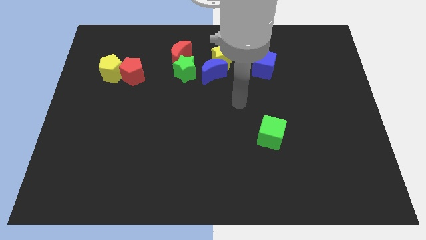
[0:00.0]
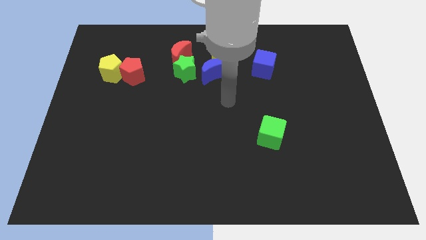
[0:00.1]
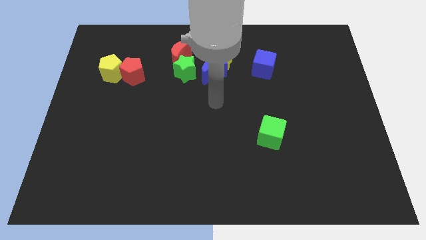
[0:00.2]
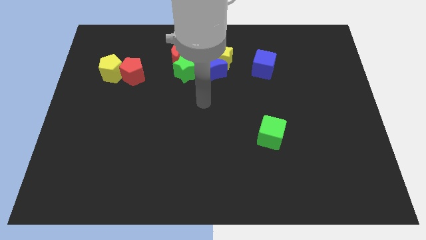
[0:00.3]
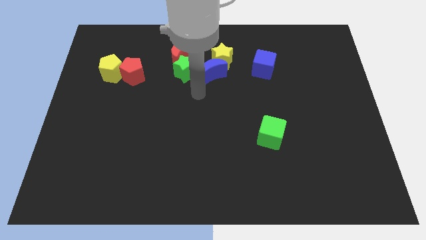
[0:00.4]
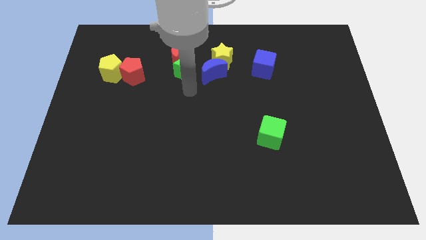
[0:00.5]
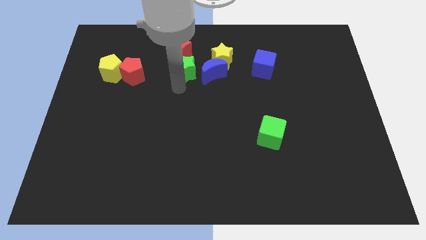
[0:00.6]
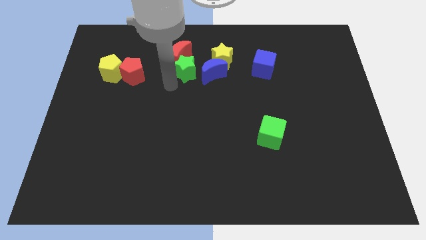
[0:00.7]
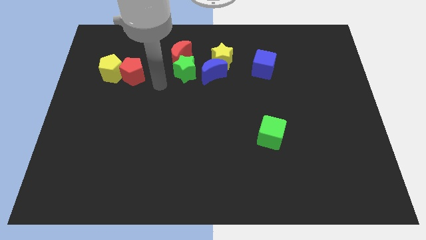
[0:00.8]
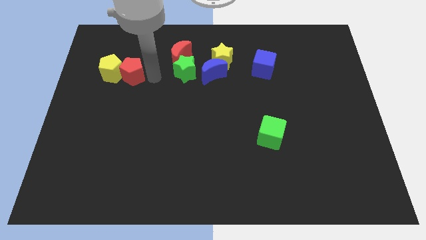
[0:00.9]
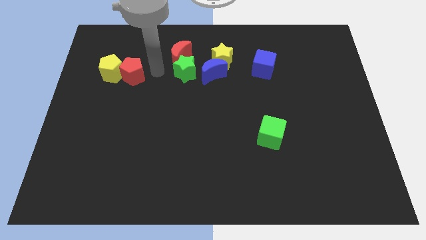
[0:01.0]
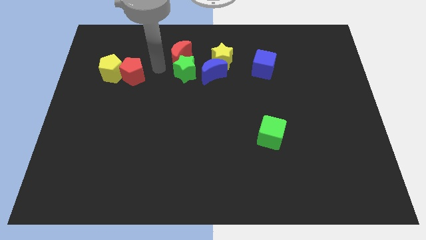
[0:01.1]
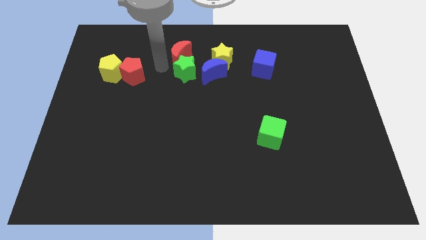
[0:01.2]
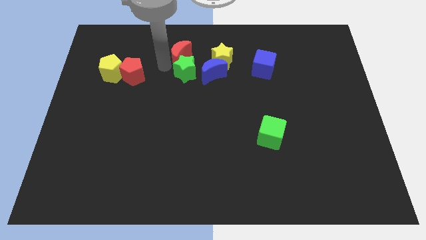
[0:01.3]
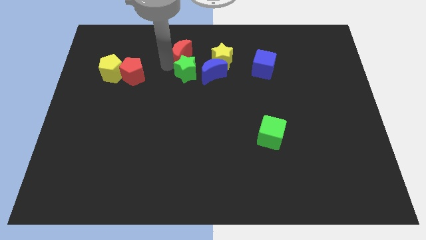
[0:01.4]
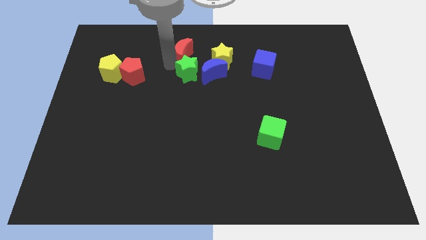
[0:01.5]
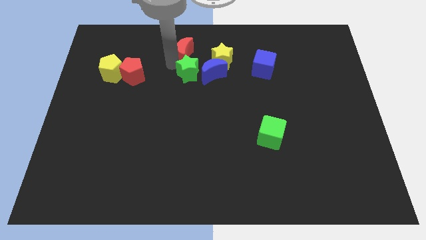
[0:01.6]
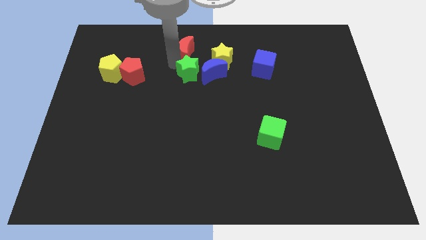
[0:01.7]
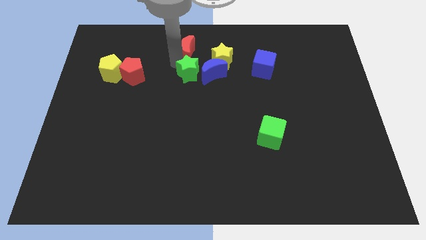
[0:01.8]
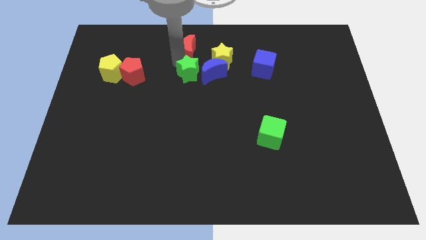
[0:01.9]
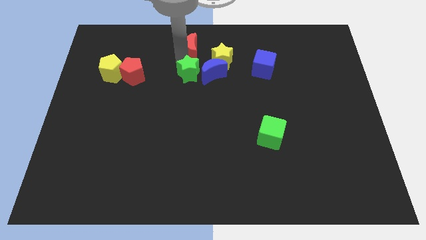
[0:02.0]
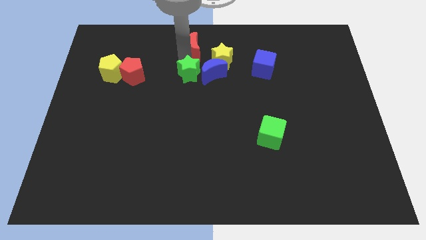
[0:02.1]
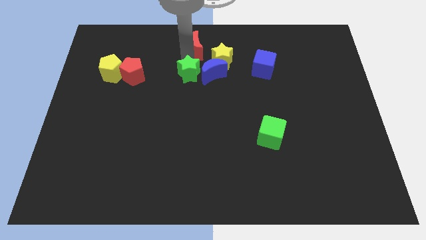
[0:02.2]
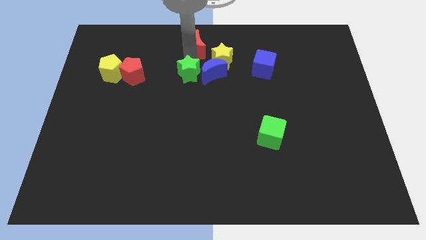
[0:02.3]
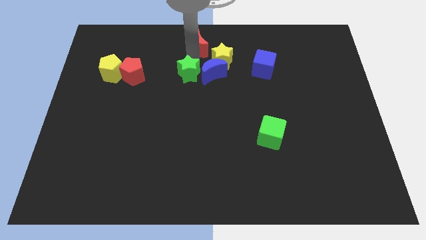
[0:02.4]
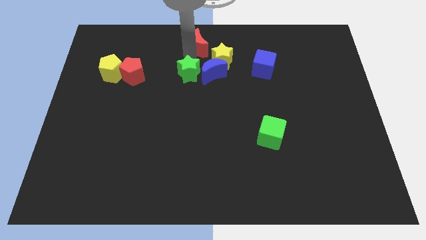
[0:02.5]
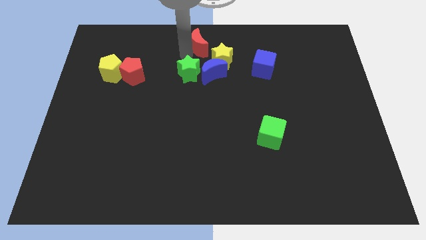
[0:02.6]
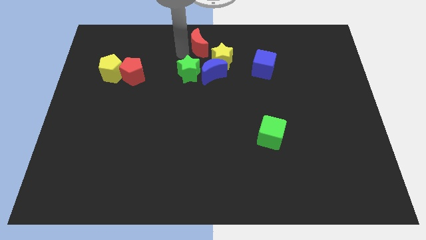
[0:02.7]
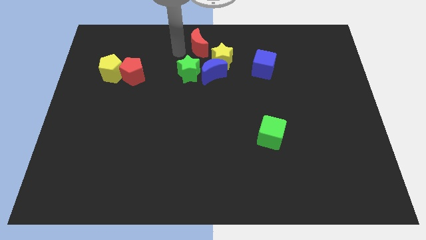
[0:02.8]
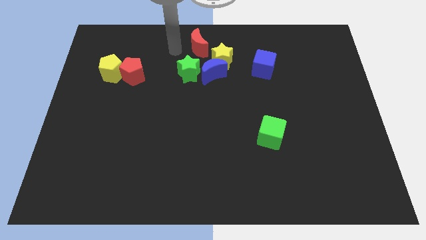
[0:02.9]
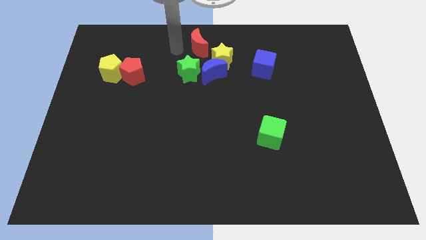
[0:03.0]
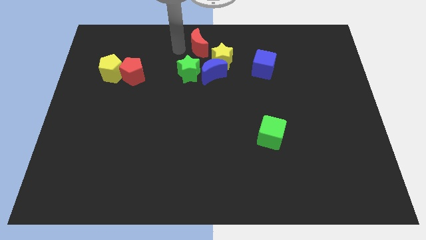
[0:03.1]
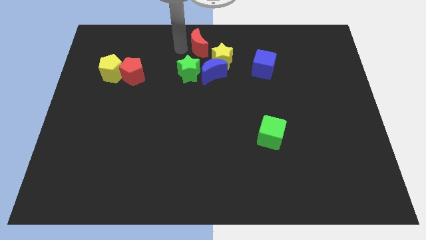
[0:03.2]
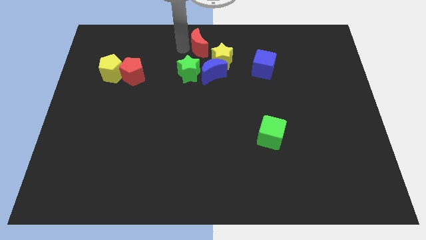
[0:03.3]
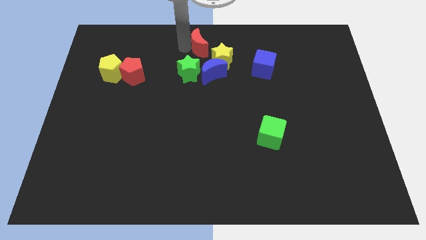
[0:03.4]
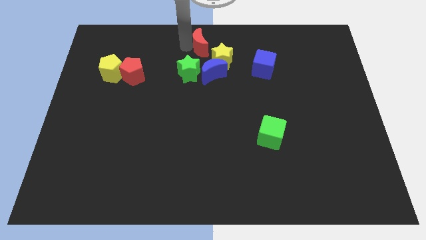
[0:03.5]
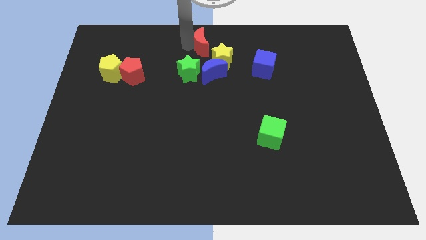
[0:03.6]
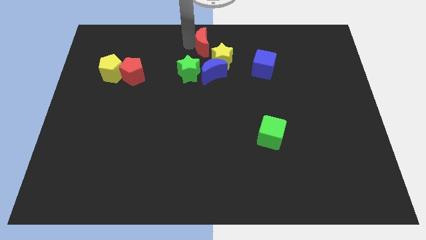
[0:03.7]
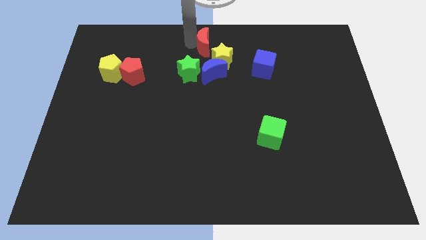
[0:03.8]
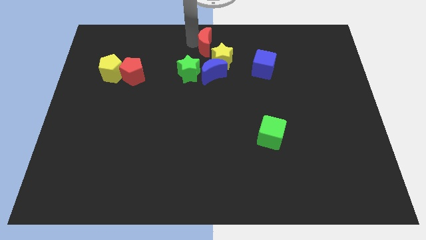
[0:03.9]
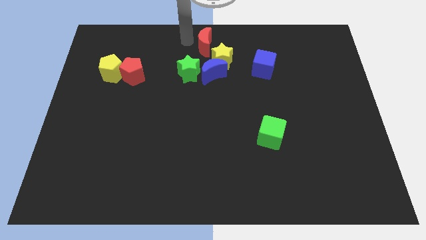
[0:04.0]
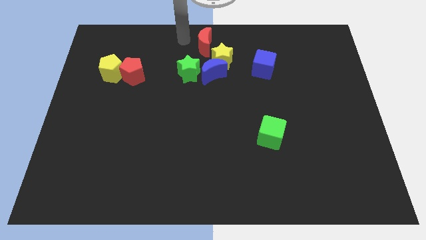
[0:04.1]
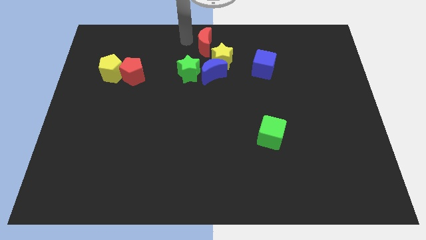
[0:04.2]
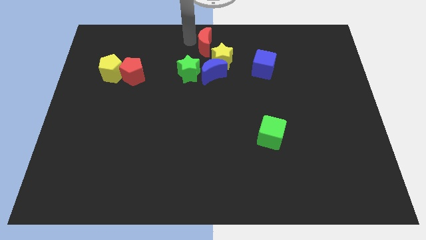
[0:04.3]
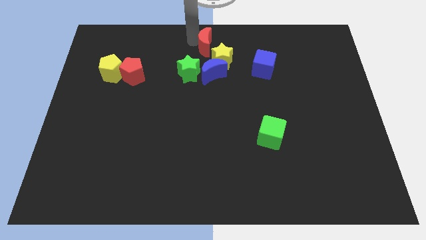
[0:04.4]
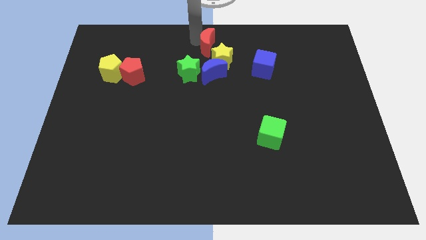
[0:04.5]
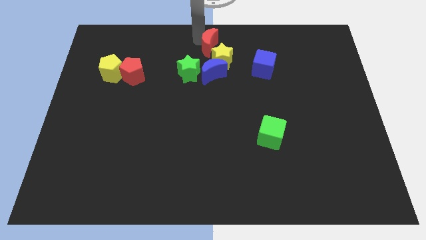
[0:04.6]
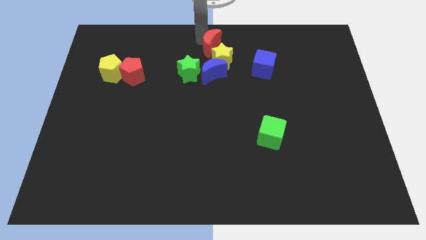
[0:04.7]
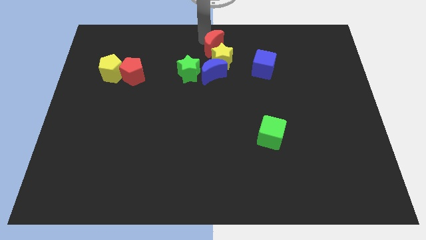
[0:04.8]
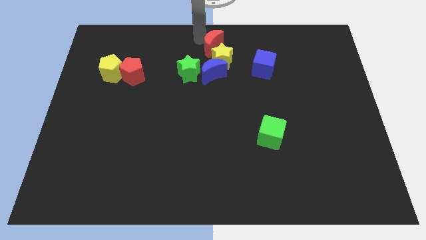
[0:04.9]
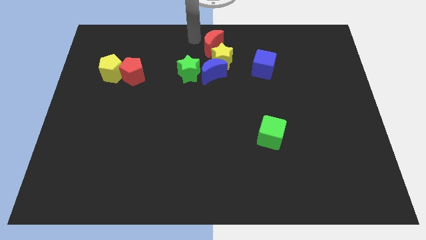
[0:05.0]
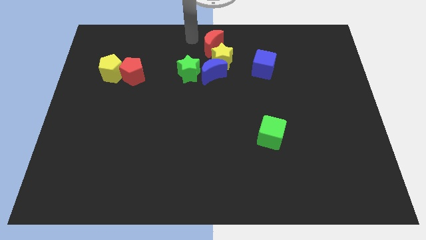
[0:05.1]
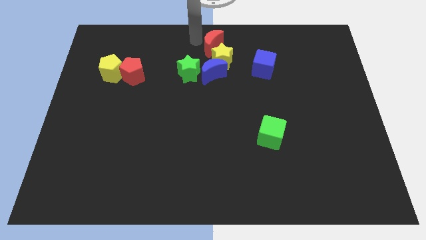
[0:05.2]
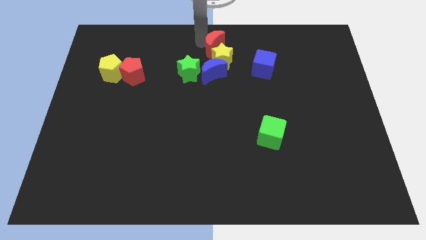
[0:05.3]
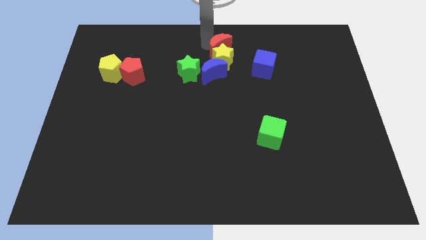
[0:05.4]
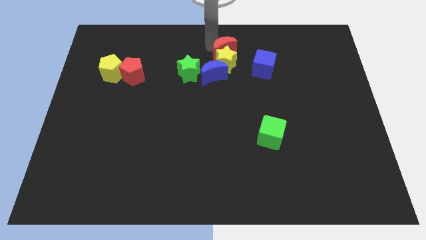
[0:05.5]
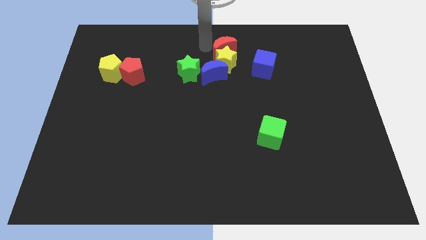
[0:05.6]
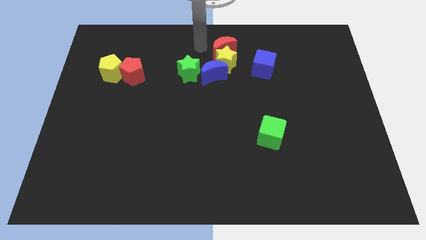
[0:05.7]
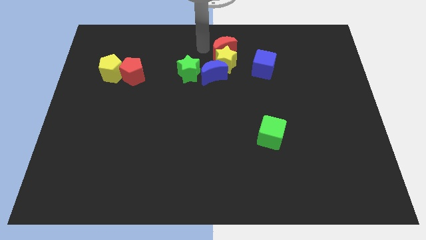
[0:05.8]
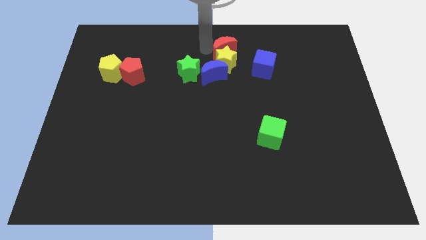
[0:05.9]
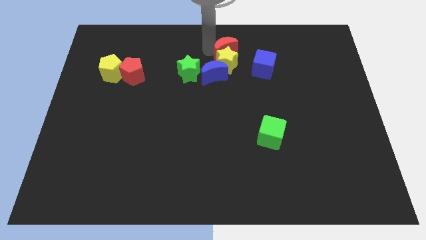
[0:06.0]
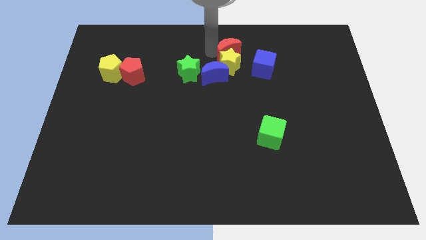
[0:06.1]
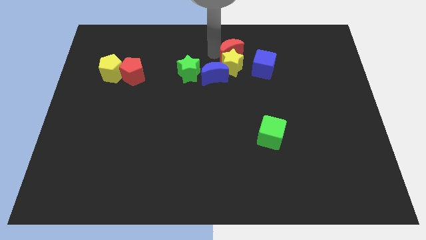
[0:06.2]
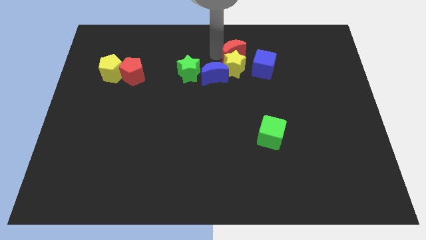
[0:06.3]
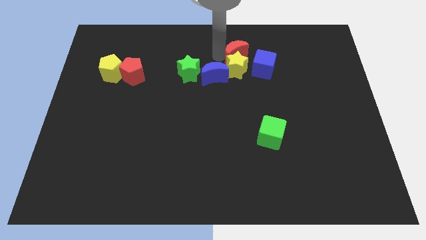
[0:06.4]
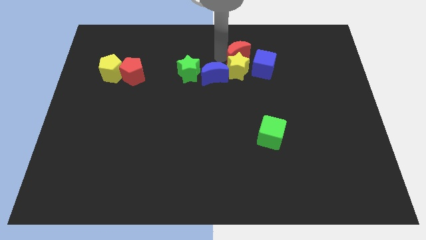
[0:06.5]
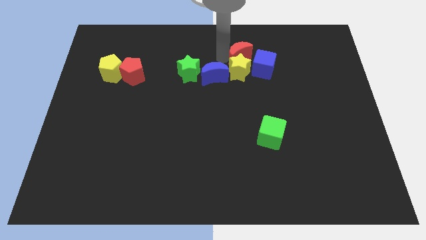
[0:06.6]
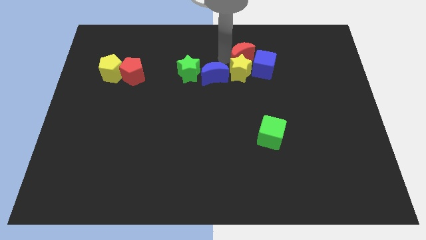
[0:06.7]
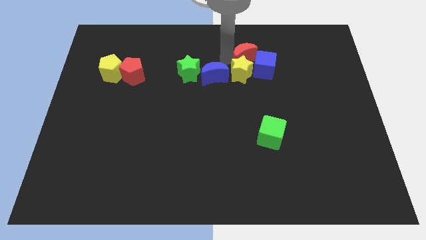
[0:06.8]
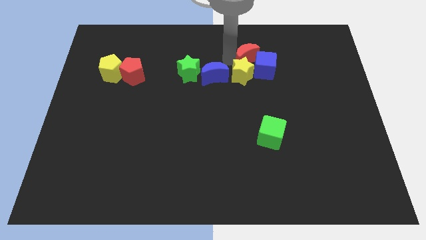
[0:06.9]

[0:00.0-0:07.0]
slide the red moon close to the blue cube

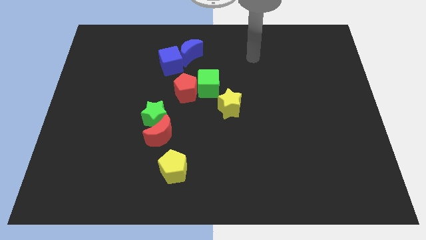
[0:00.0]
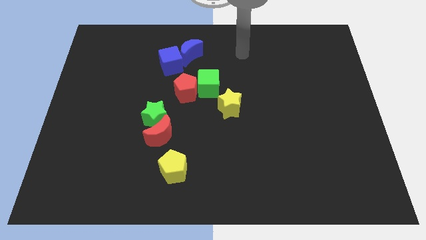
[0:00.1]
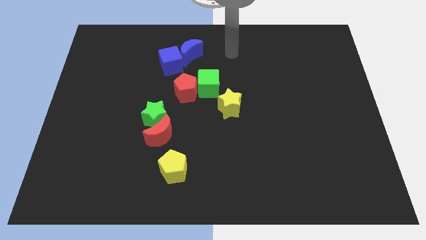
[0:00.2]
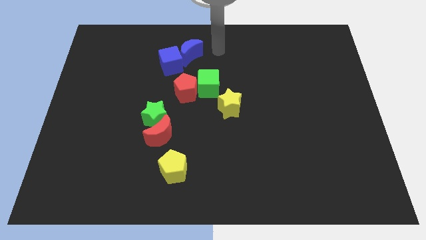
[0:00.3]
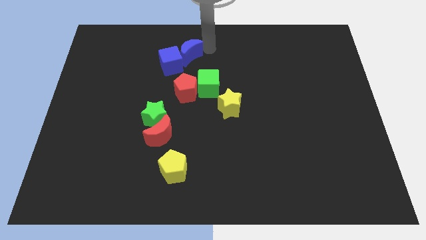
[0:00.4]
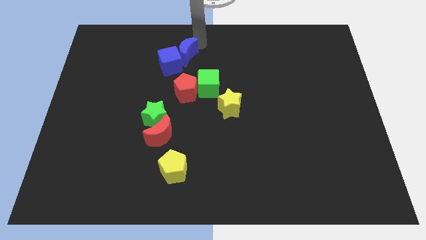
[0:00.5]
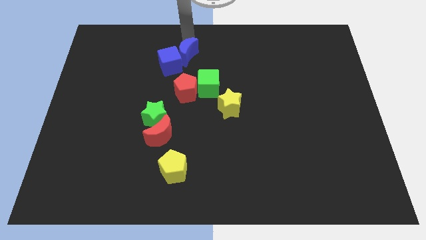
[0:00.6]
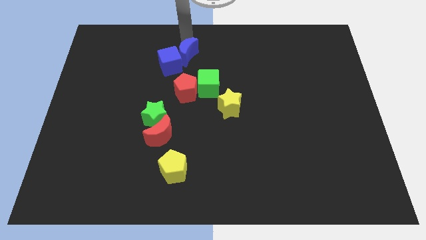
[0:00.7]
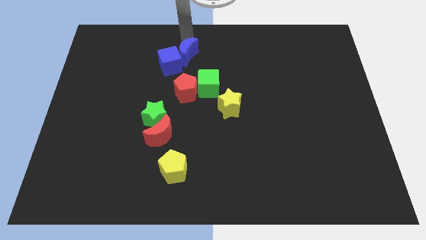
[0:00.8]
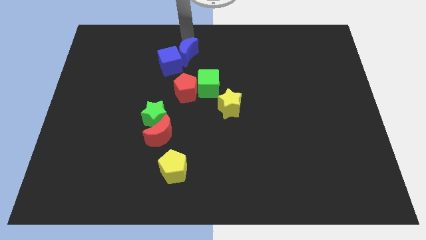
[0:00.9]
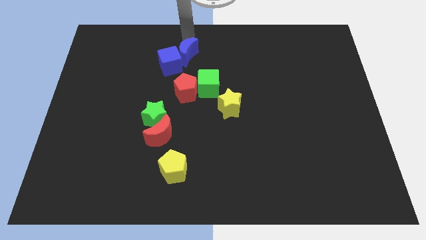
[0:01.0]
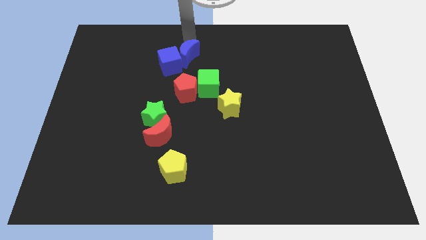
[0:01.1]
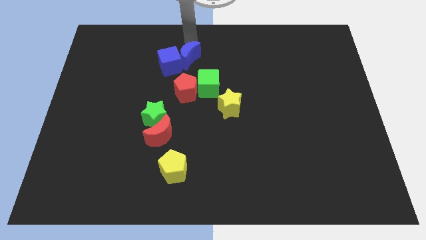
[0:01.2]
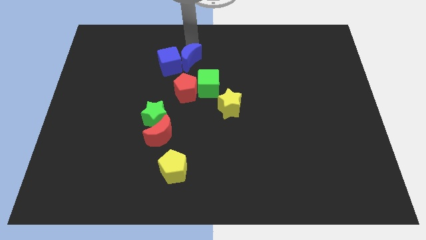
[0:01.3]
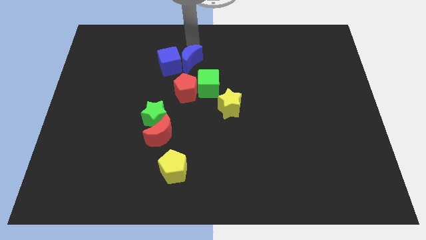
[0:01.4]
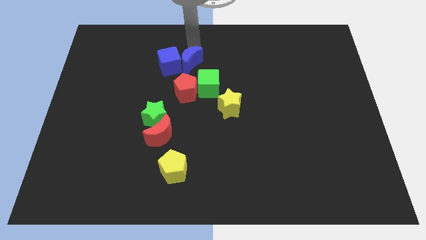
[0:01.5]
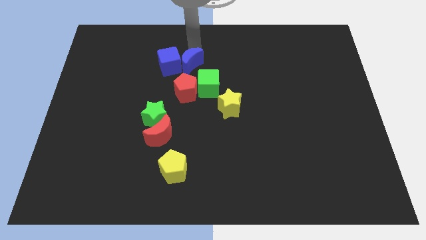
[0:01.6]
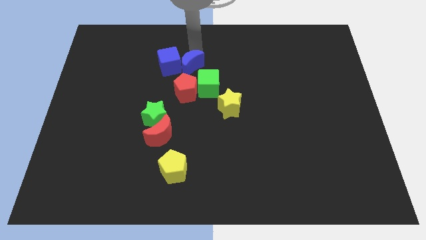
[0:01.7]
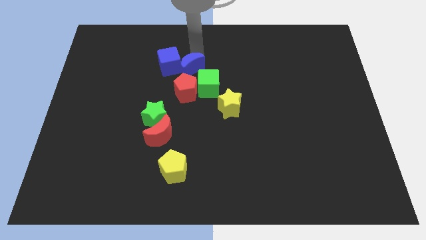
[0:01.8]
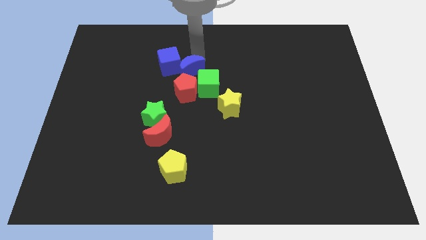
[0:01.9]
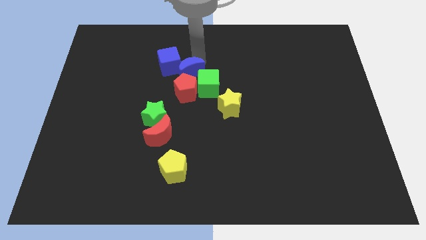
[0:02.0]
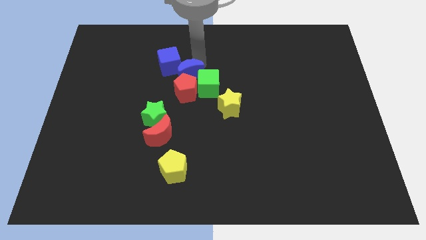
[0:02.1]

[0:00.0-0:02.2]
push the blue moon close to the red pentagon
